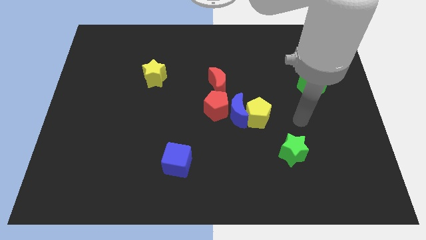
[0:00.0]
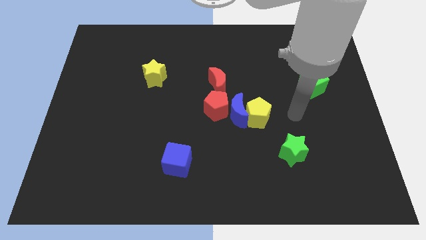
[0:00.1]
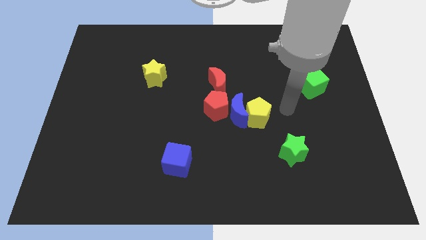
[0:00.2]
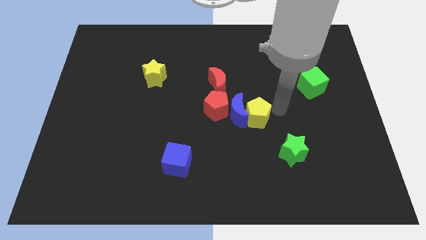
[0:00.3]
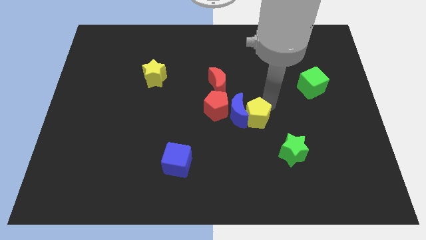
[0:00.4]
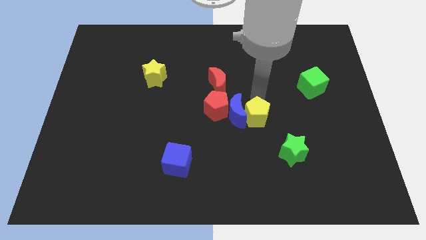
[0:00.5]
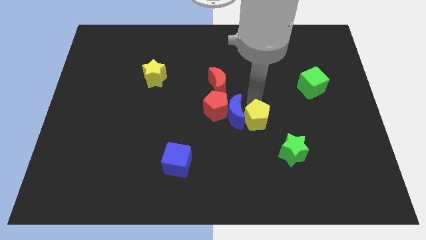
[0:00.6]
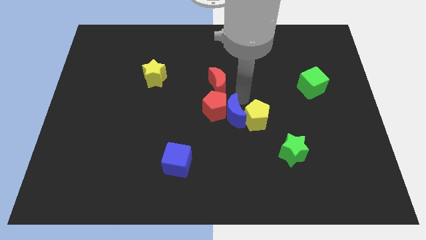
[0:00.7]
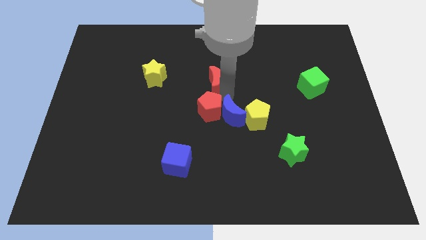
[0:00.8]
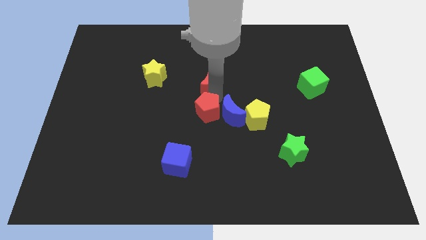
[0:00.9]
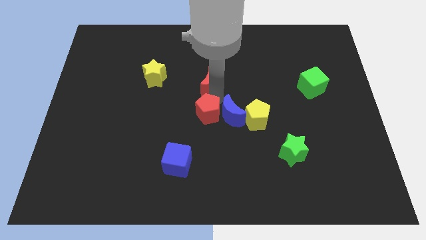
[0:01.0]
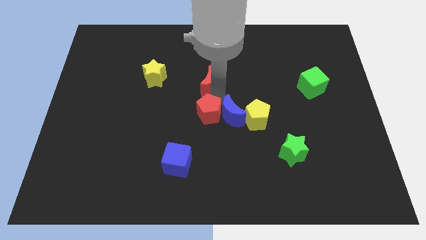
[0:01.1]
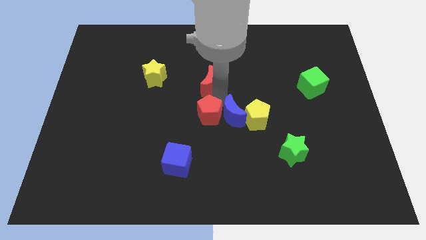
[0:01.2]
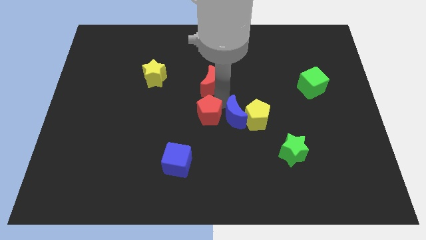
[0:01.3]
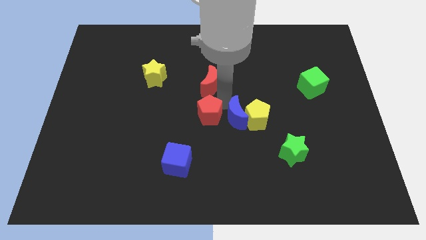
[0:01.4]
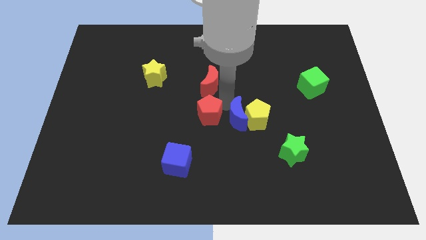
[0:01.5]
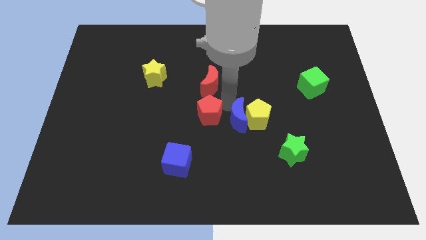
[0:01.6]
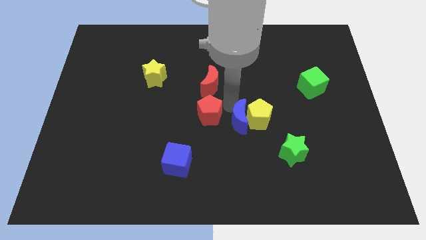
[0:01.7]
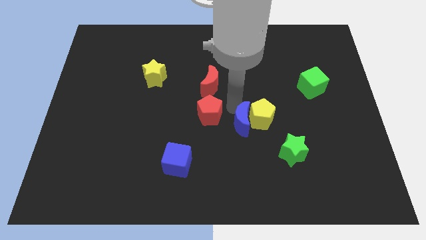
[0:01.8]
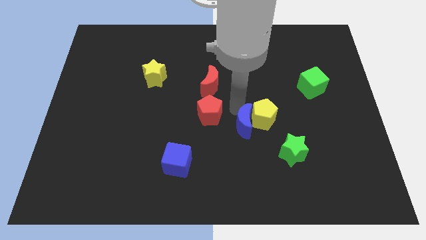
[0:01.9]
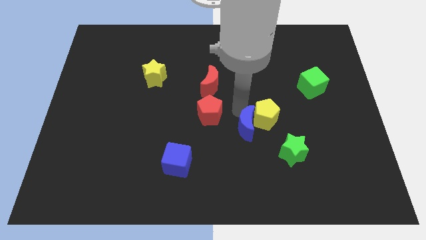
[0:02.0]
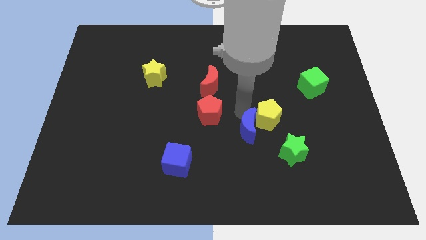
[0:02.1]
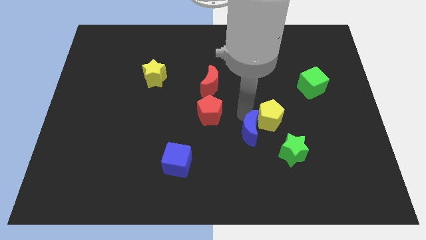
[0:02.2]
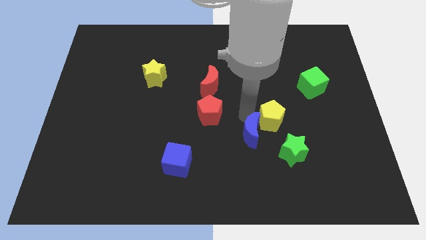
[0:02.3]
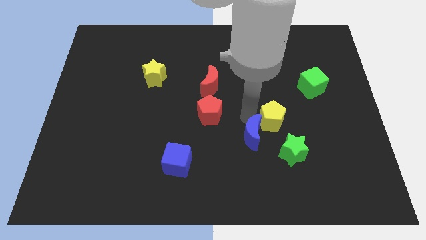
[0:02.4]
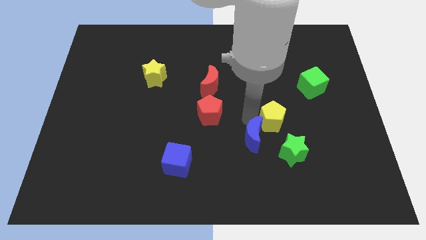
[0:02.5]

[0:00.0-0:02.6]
move the blue moon away from the group of blocks

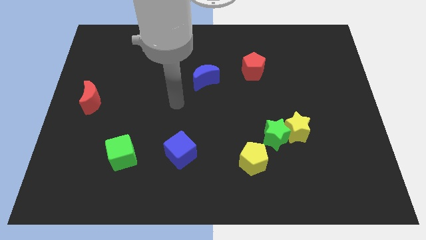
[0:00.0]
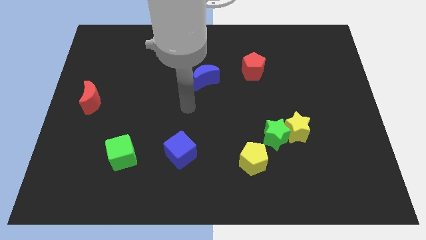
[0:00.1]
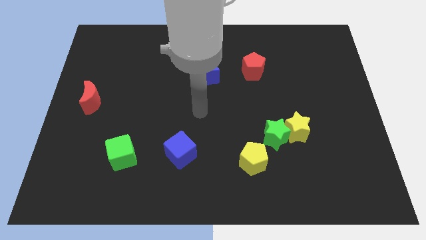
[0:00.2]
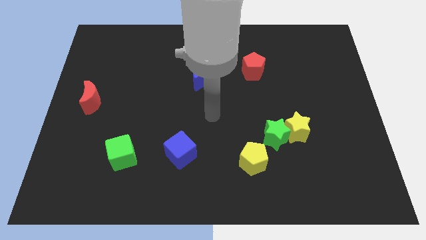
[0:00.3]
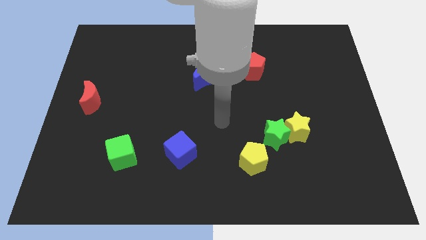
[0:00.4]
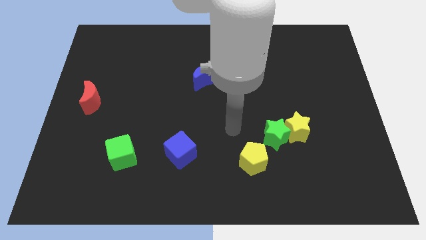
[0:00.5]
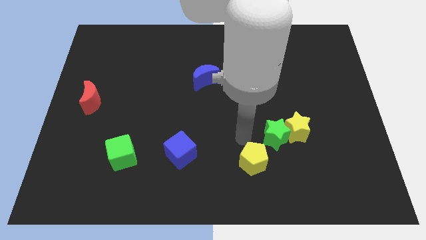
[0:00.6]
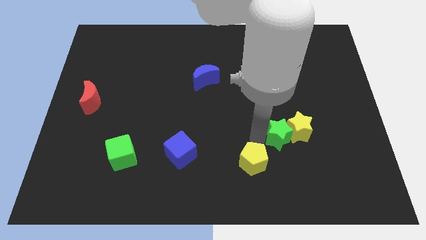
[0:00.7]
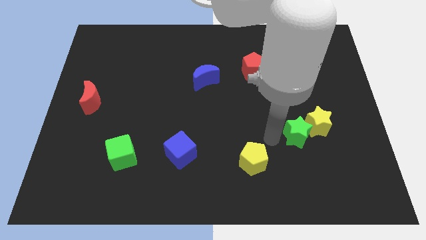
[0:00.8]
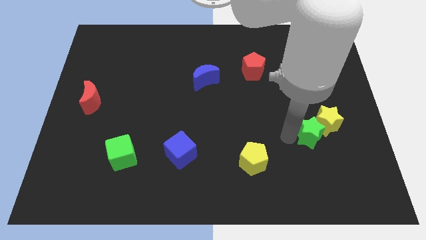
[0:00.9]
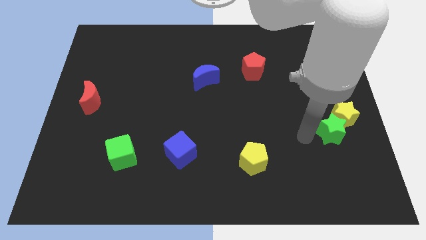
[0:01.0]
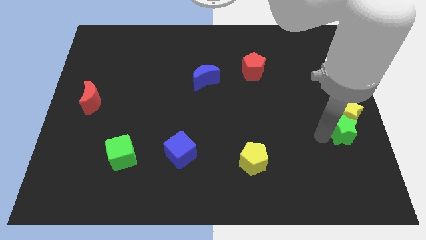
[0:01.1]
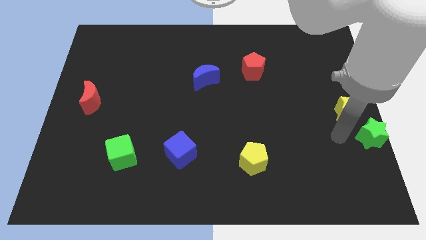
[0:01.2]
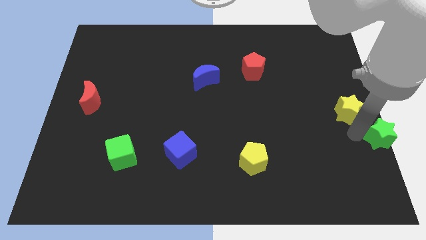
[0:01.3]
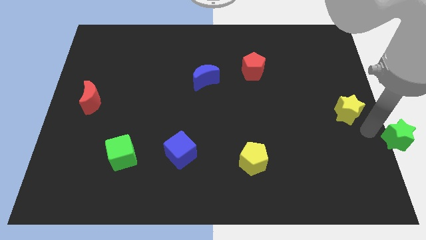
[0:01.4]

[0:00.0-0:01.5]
pull the yellow star apart from the green star

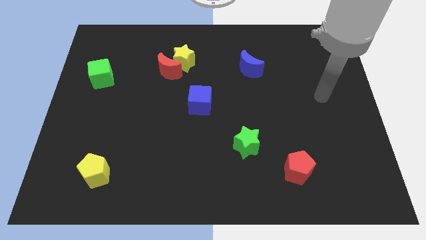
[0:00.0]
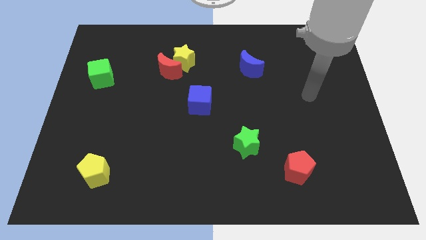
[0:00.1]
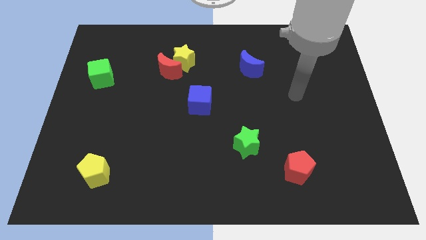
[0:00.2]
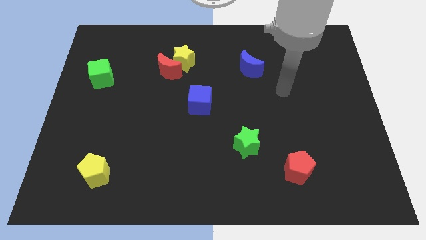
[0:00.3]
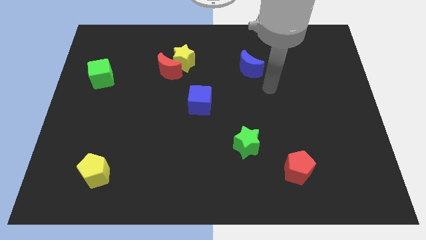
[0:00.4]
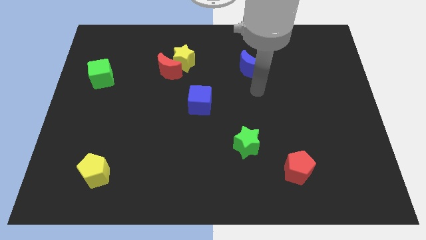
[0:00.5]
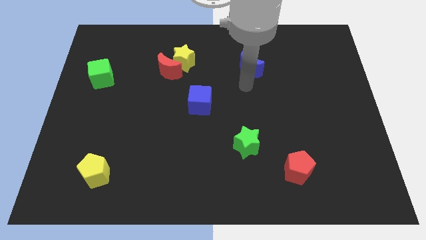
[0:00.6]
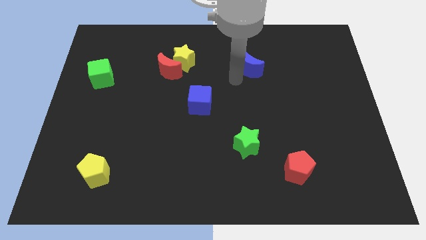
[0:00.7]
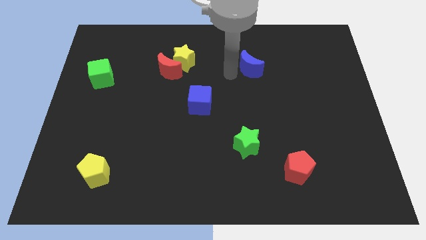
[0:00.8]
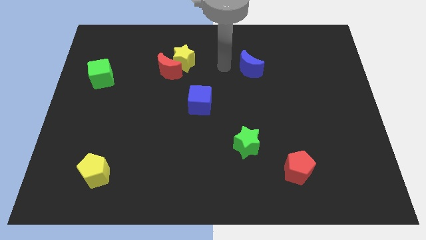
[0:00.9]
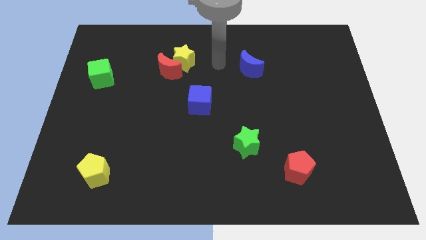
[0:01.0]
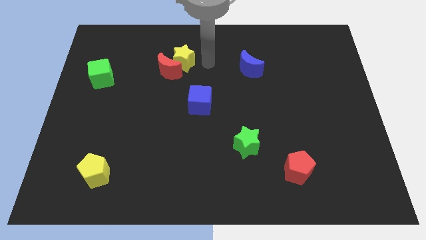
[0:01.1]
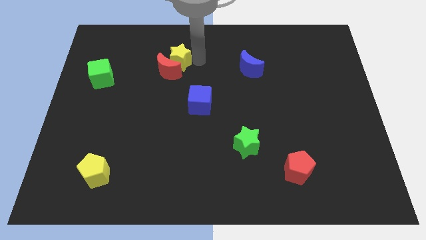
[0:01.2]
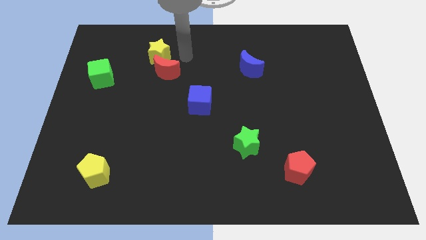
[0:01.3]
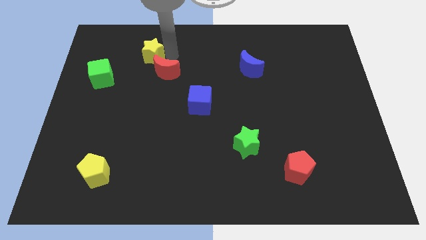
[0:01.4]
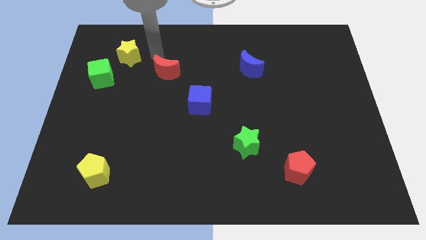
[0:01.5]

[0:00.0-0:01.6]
pull the red moon apart from the yellow star

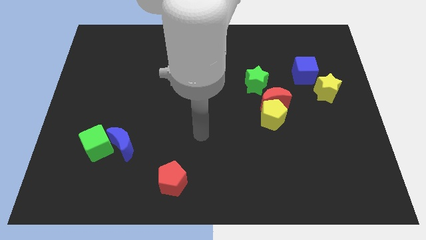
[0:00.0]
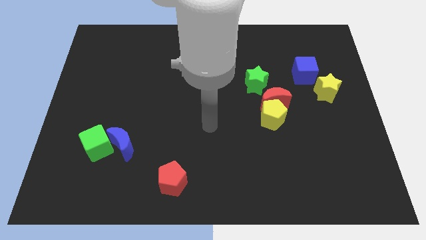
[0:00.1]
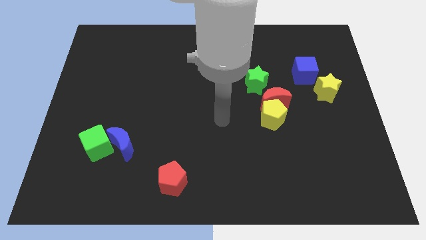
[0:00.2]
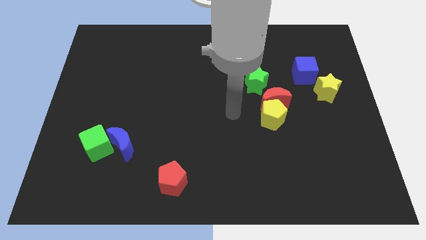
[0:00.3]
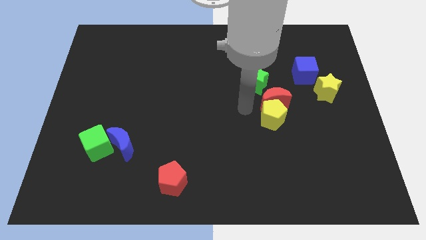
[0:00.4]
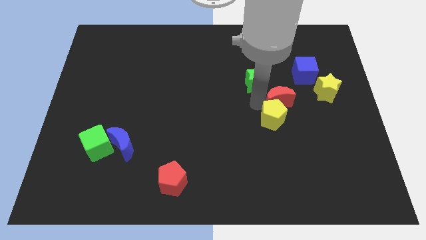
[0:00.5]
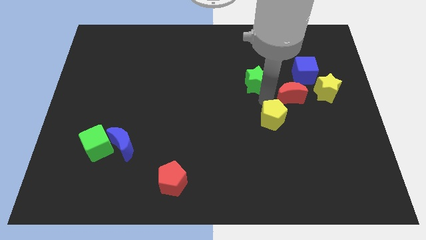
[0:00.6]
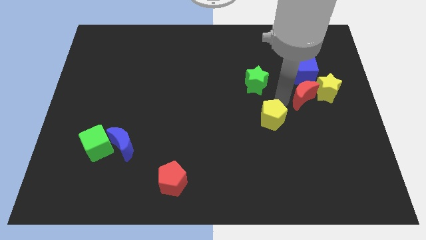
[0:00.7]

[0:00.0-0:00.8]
pull the yellow pentagon apart from the red moon

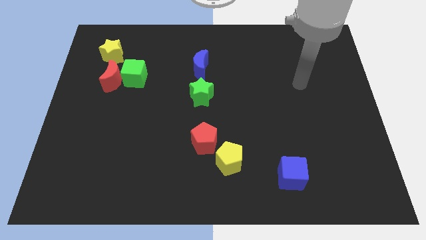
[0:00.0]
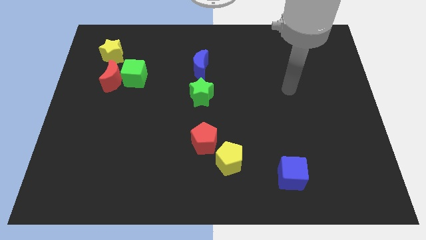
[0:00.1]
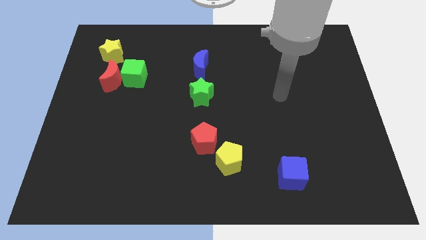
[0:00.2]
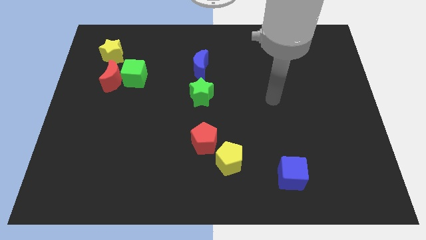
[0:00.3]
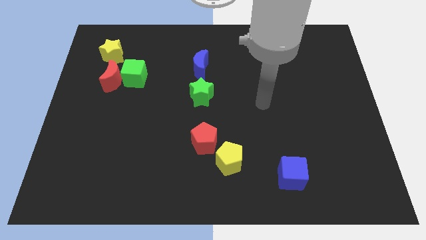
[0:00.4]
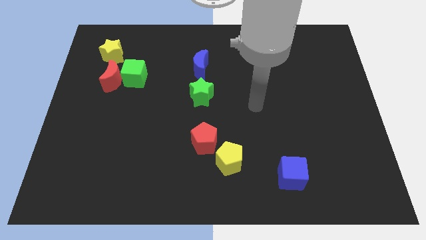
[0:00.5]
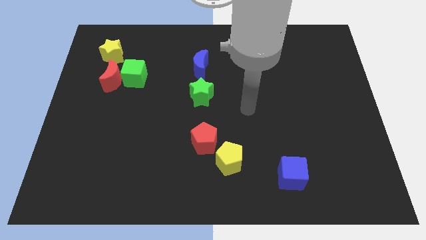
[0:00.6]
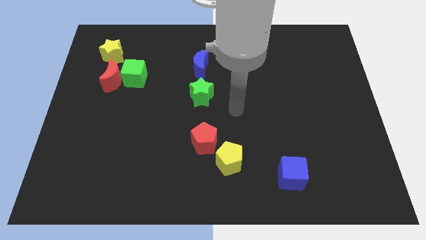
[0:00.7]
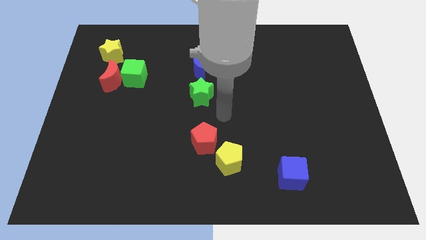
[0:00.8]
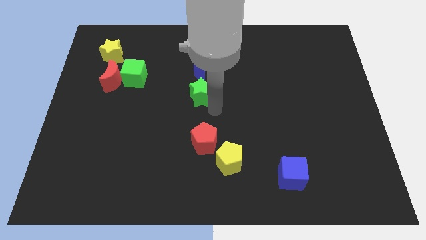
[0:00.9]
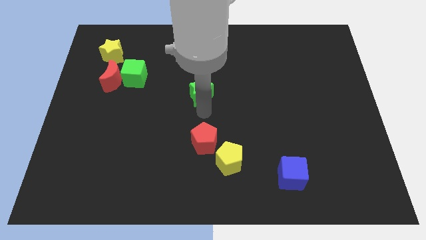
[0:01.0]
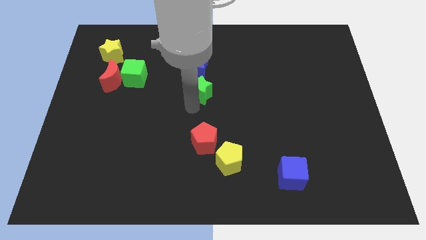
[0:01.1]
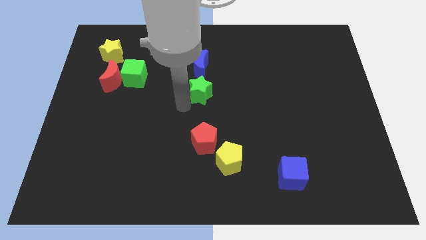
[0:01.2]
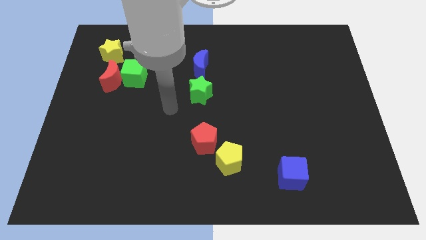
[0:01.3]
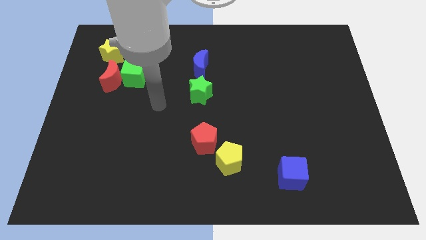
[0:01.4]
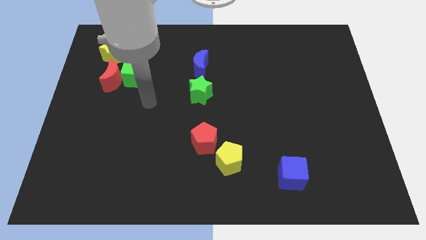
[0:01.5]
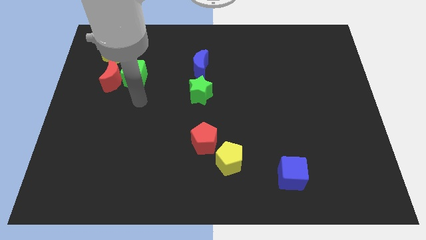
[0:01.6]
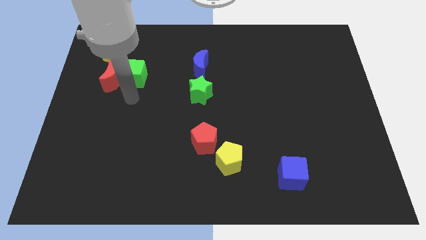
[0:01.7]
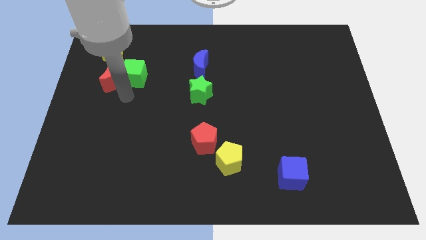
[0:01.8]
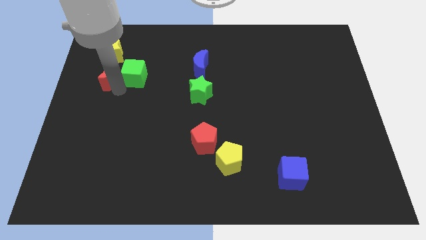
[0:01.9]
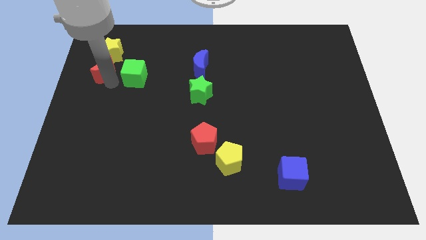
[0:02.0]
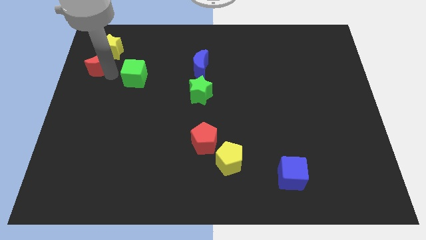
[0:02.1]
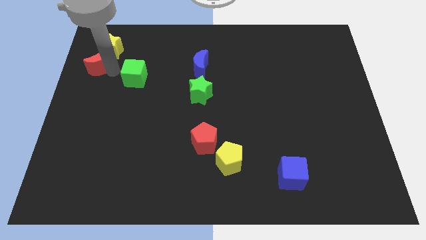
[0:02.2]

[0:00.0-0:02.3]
move the green cube away from the red moon

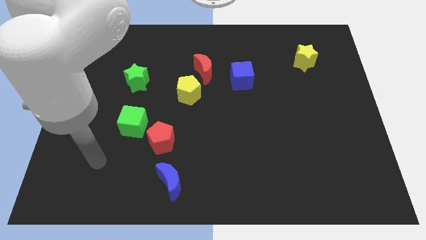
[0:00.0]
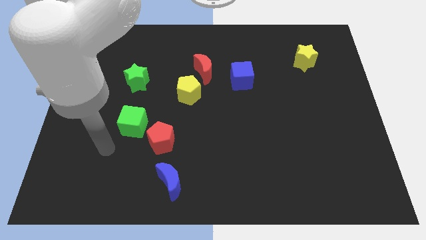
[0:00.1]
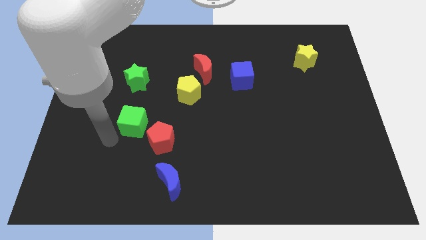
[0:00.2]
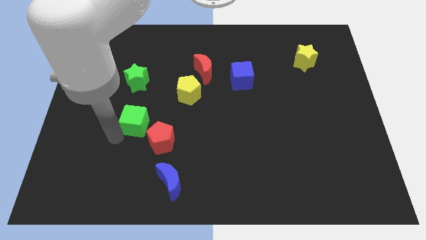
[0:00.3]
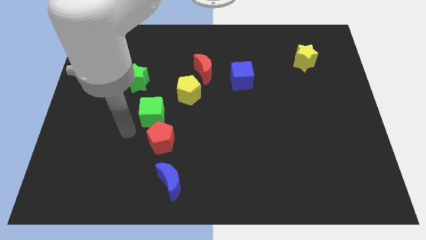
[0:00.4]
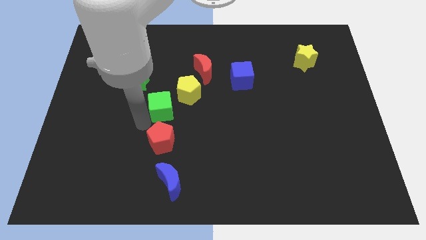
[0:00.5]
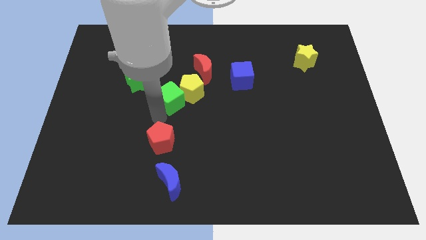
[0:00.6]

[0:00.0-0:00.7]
move the red pentagon away from the green cube
